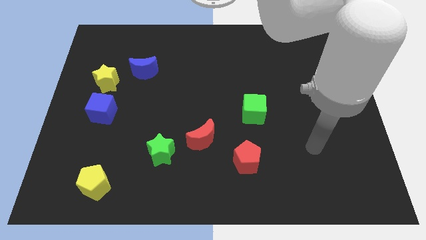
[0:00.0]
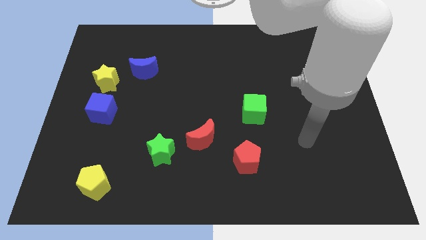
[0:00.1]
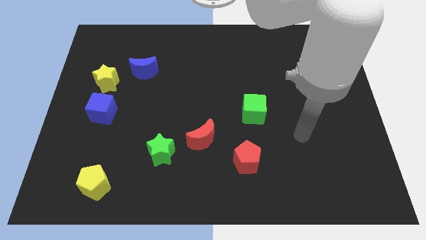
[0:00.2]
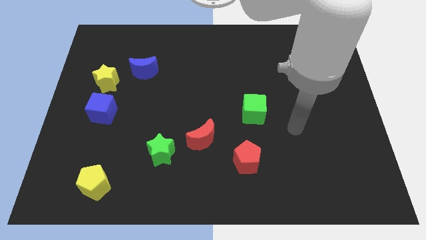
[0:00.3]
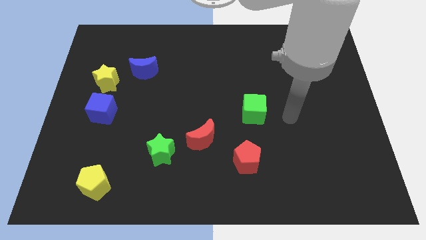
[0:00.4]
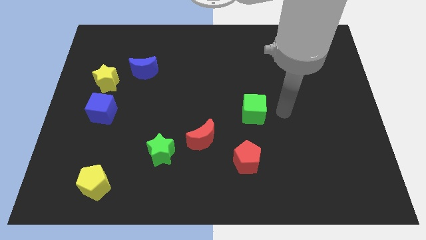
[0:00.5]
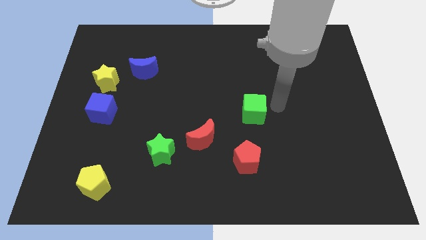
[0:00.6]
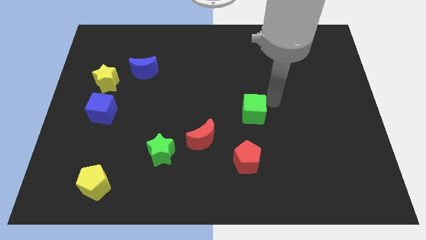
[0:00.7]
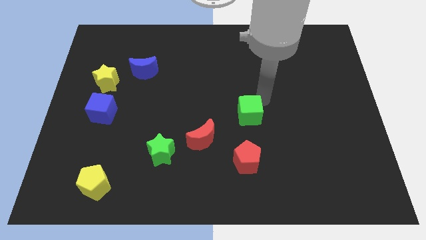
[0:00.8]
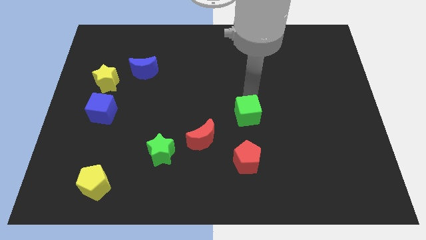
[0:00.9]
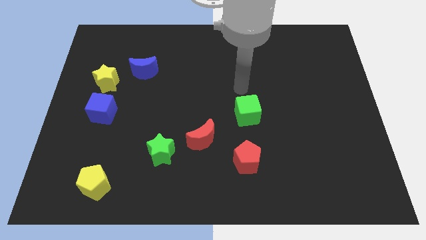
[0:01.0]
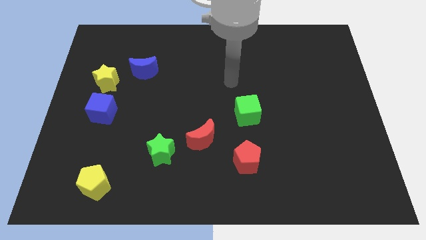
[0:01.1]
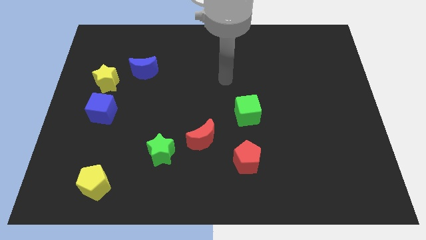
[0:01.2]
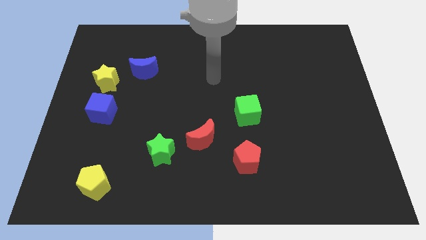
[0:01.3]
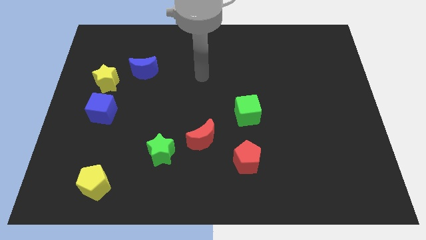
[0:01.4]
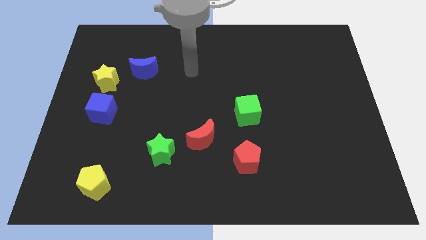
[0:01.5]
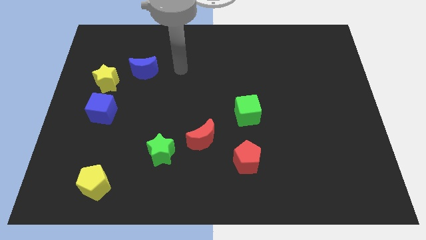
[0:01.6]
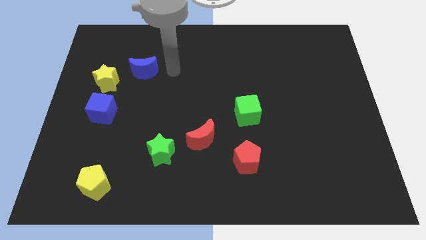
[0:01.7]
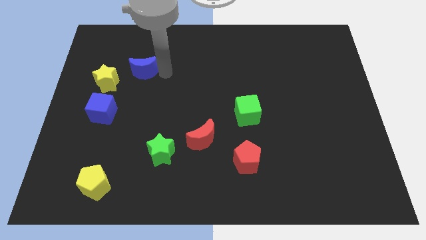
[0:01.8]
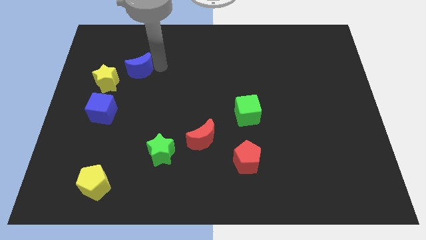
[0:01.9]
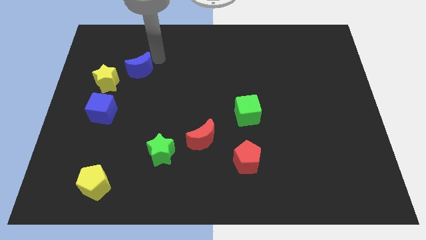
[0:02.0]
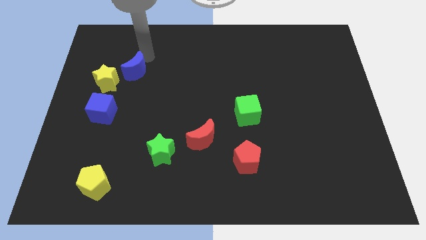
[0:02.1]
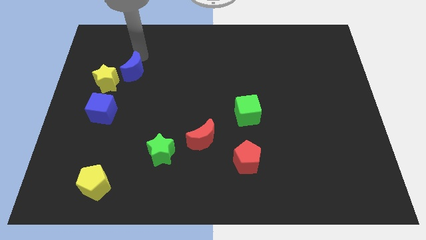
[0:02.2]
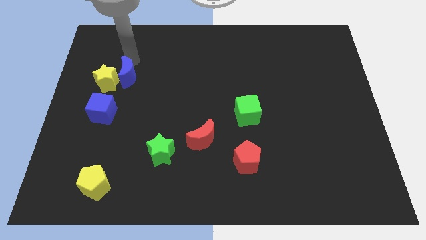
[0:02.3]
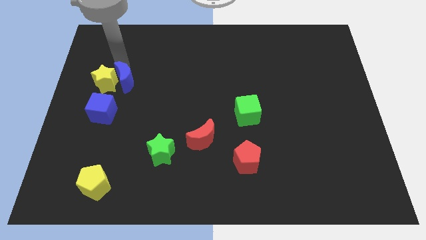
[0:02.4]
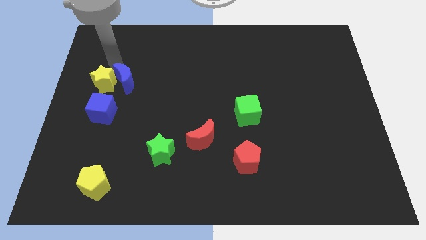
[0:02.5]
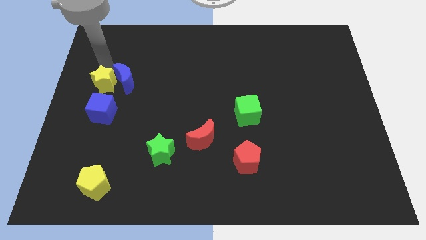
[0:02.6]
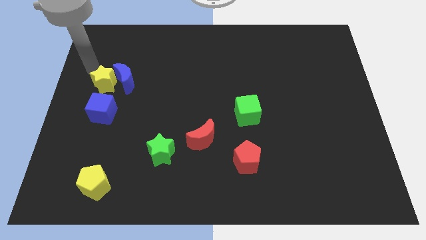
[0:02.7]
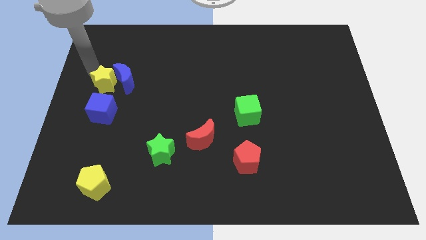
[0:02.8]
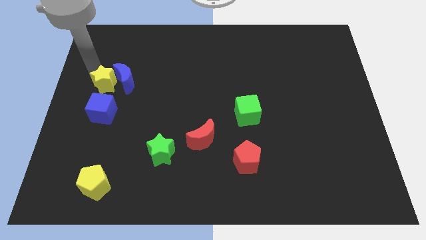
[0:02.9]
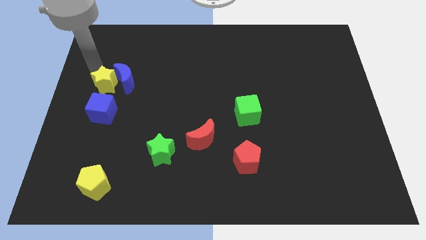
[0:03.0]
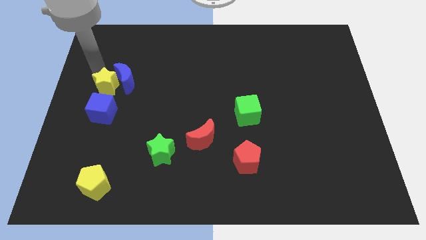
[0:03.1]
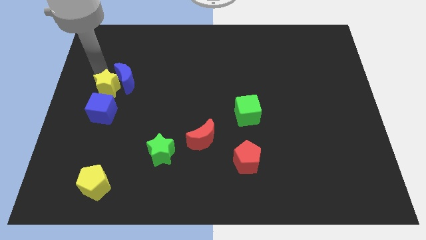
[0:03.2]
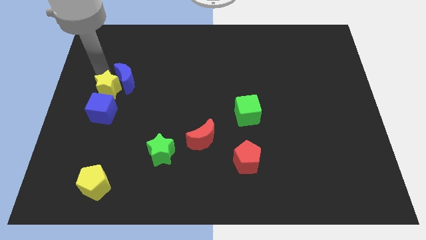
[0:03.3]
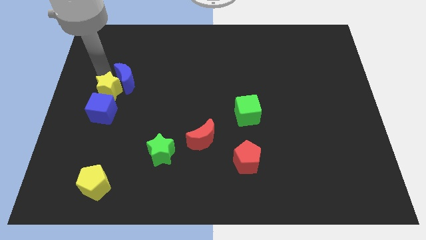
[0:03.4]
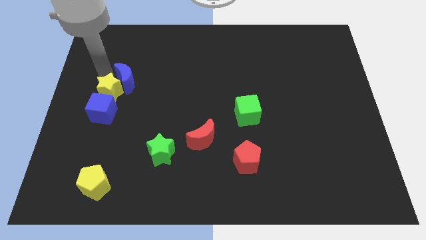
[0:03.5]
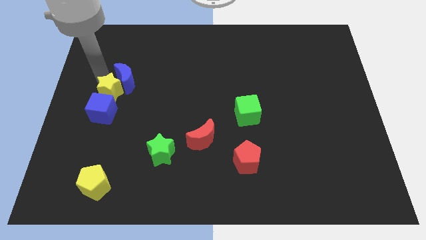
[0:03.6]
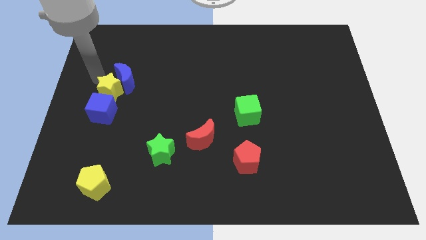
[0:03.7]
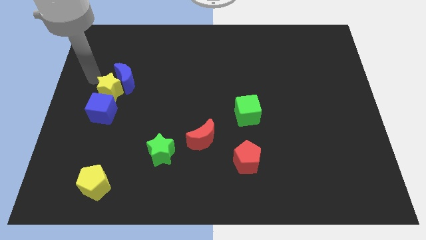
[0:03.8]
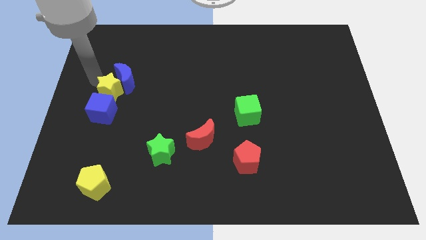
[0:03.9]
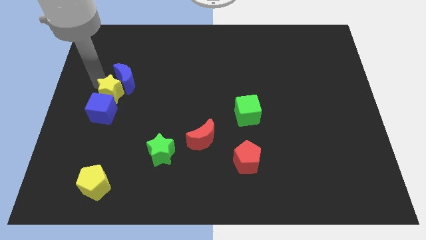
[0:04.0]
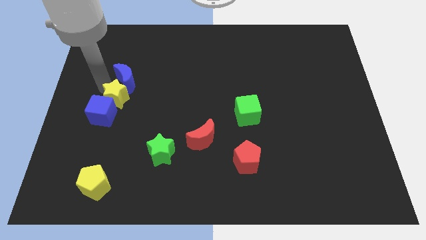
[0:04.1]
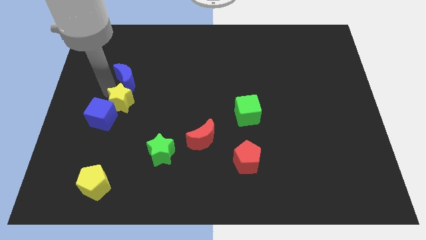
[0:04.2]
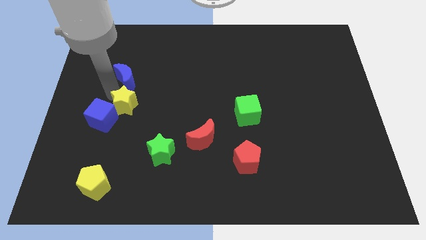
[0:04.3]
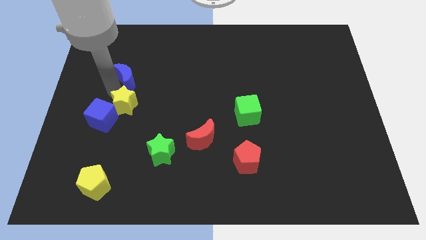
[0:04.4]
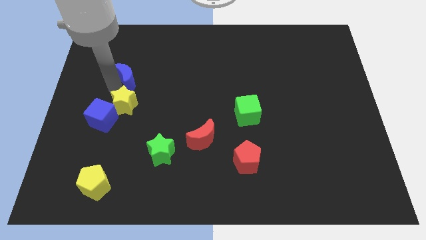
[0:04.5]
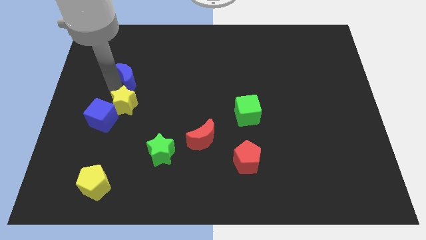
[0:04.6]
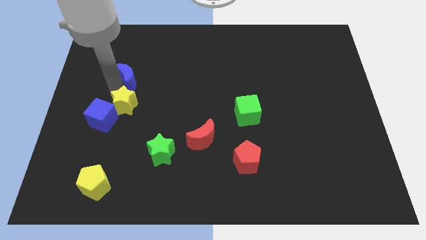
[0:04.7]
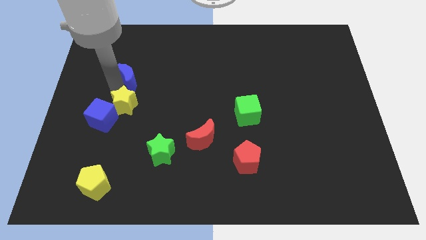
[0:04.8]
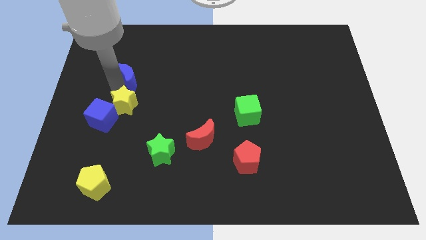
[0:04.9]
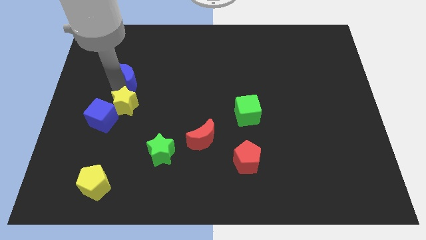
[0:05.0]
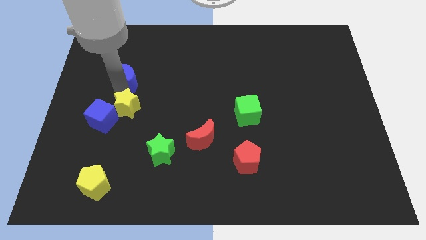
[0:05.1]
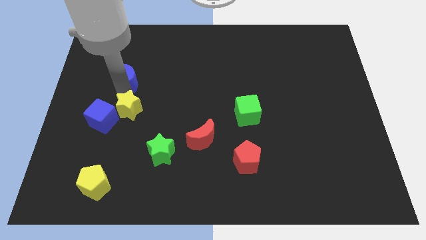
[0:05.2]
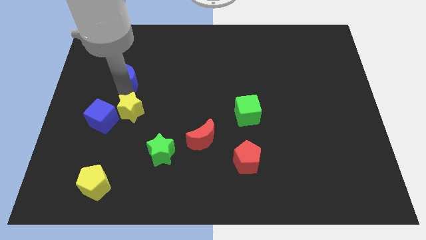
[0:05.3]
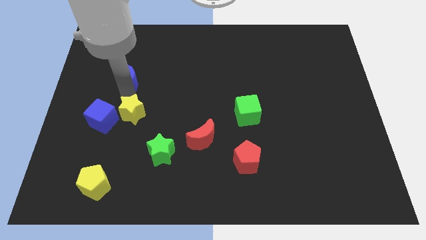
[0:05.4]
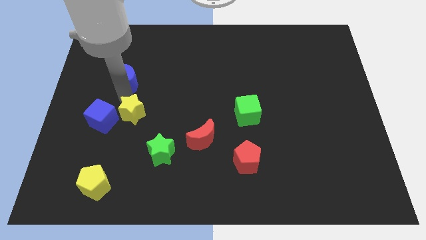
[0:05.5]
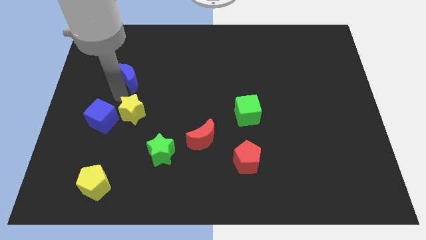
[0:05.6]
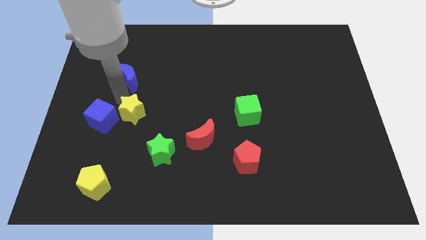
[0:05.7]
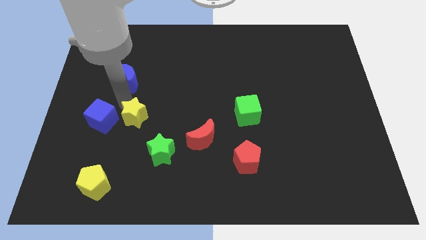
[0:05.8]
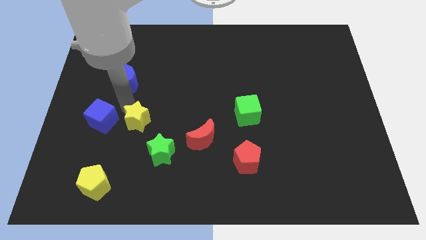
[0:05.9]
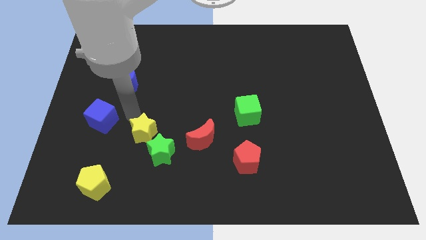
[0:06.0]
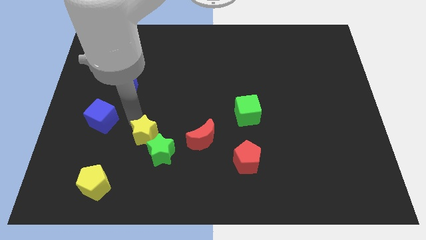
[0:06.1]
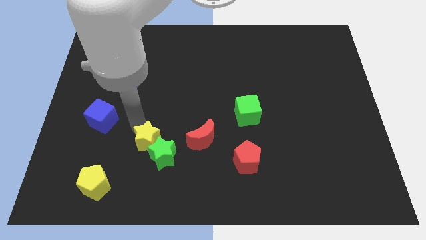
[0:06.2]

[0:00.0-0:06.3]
slide the yellow star next to the green star

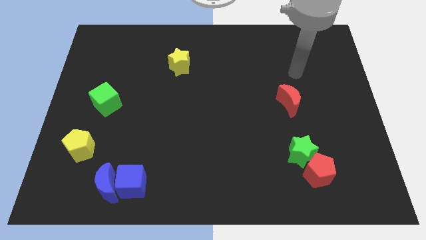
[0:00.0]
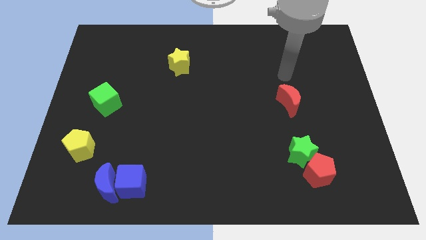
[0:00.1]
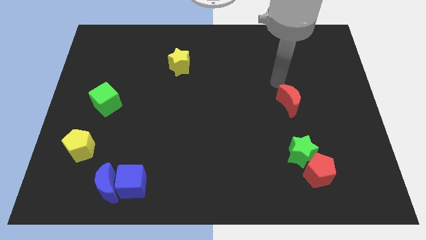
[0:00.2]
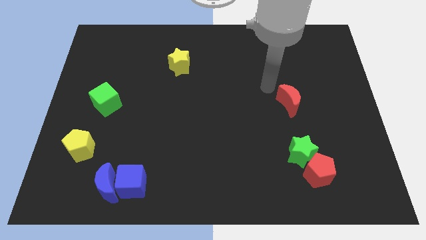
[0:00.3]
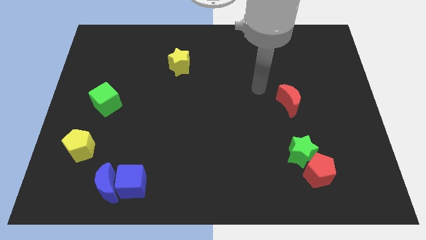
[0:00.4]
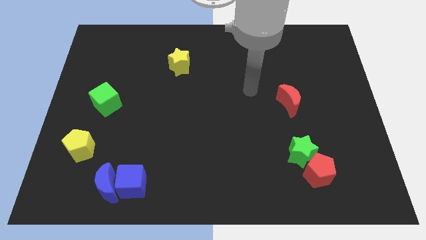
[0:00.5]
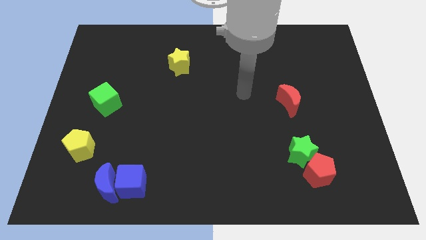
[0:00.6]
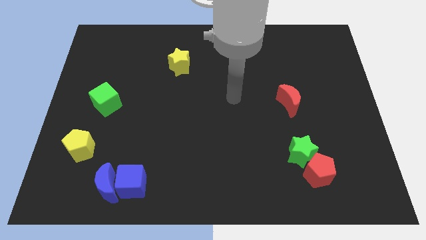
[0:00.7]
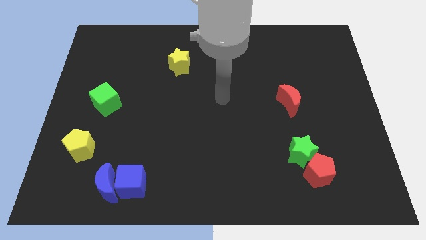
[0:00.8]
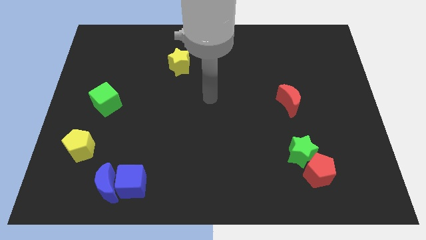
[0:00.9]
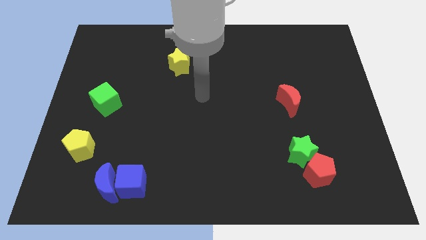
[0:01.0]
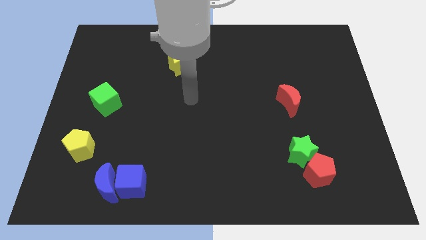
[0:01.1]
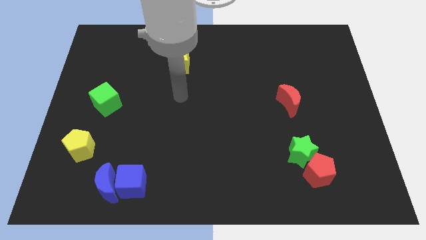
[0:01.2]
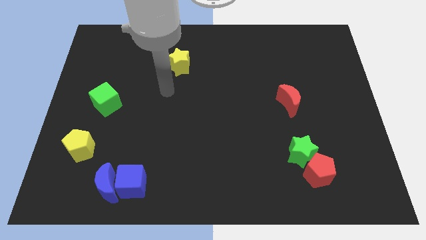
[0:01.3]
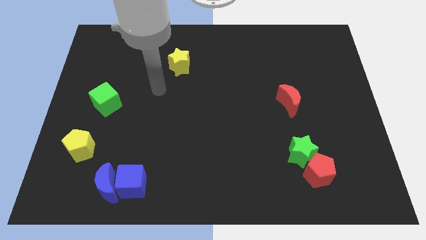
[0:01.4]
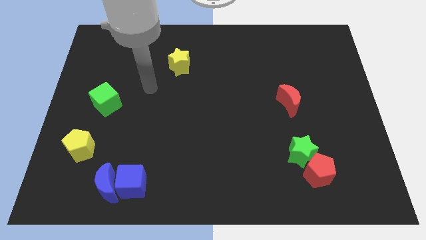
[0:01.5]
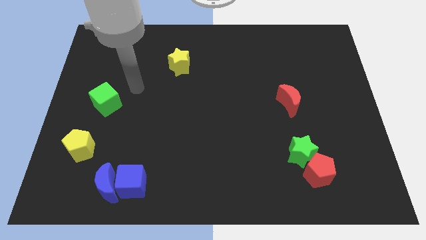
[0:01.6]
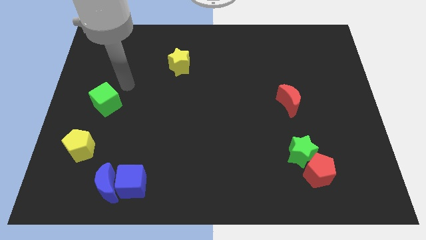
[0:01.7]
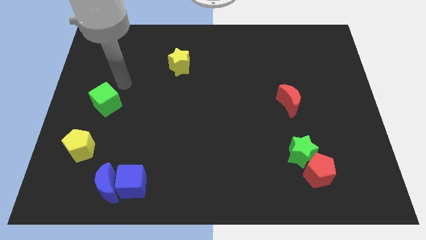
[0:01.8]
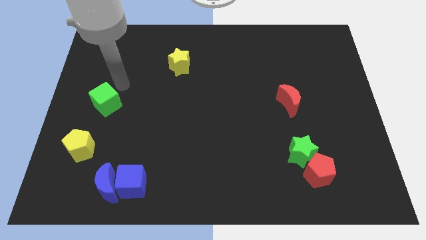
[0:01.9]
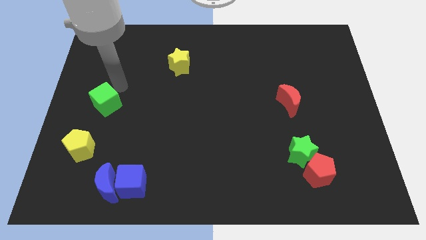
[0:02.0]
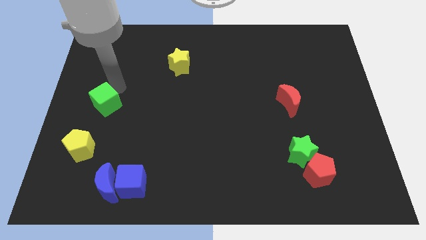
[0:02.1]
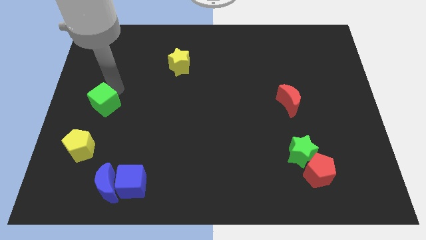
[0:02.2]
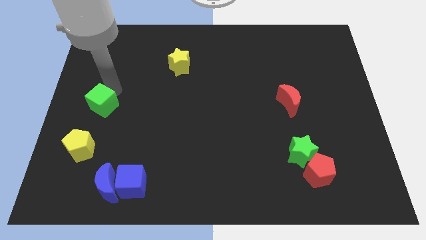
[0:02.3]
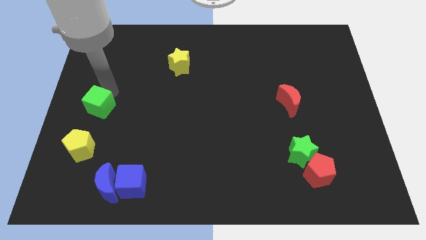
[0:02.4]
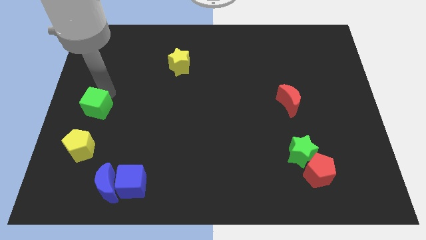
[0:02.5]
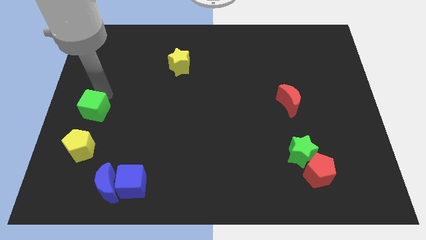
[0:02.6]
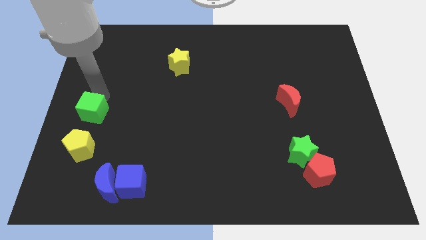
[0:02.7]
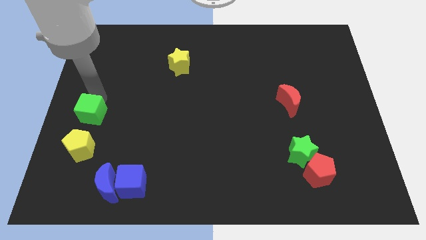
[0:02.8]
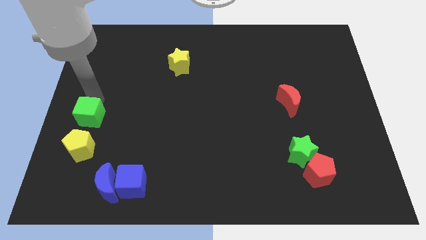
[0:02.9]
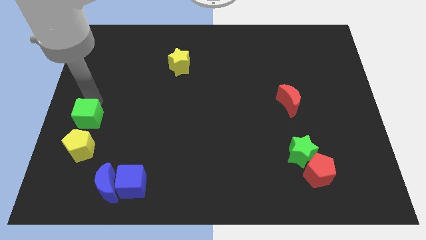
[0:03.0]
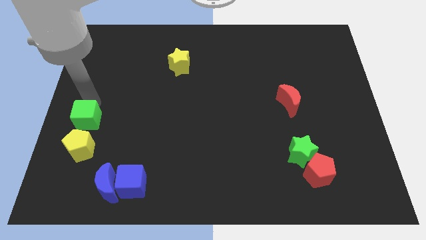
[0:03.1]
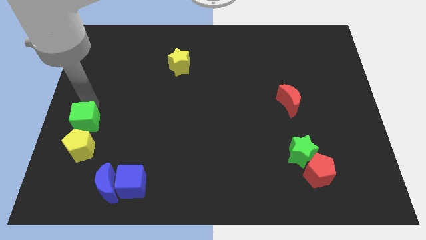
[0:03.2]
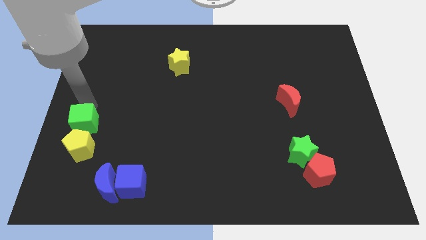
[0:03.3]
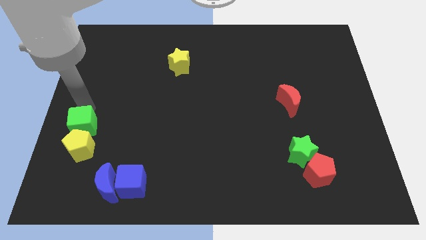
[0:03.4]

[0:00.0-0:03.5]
move the green cube close to the yellow pentagon
